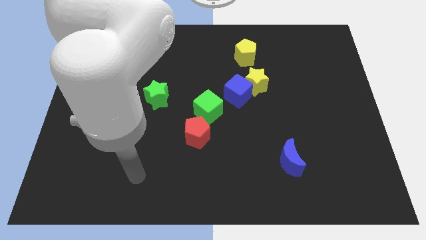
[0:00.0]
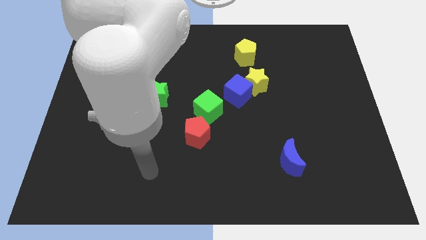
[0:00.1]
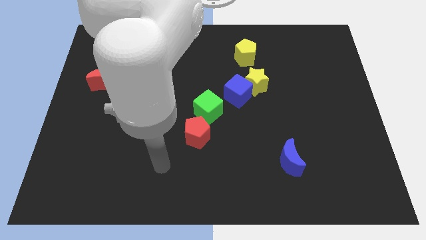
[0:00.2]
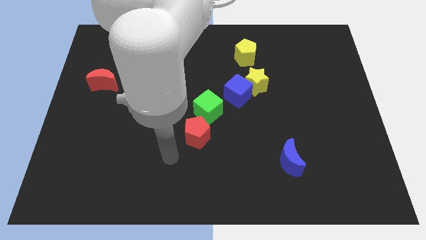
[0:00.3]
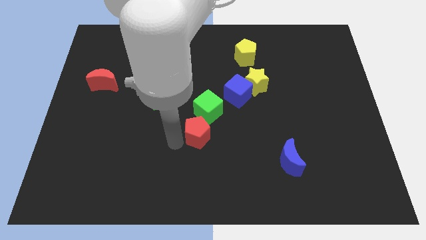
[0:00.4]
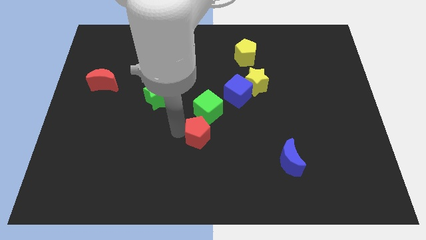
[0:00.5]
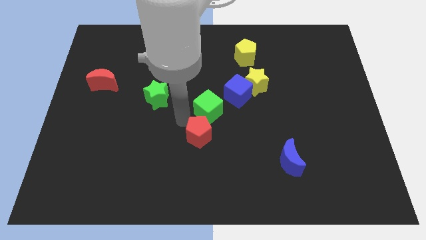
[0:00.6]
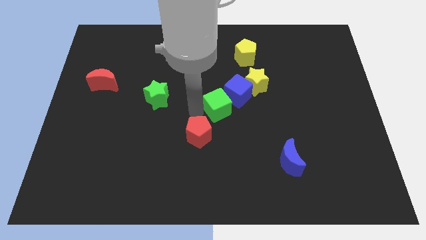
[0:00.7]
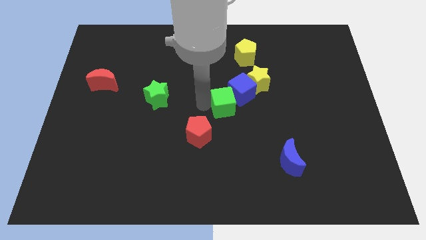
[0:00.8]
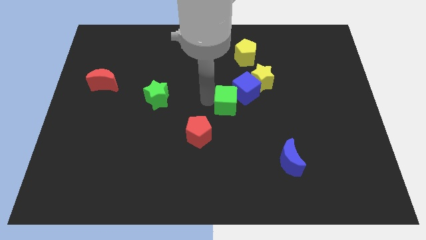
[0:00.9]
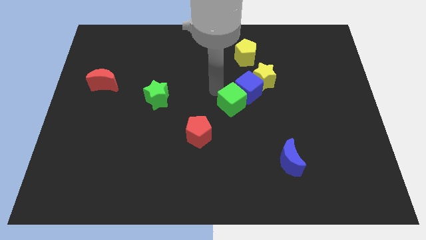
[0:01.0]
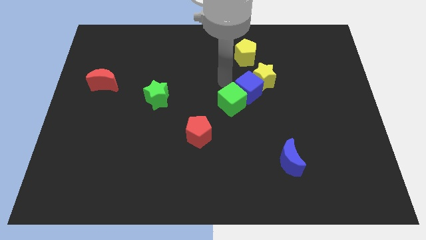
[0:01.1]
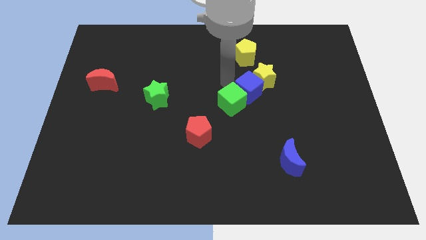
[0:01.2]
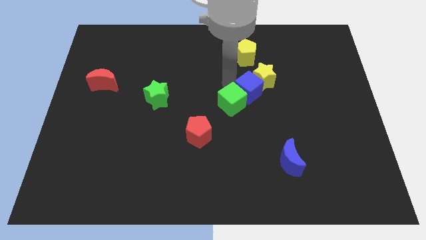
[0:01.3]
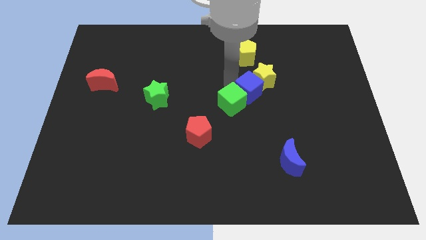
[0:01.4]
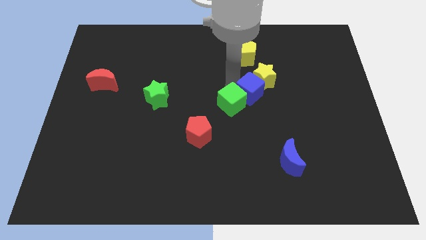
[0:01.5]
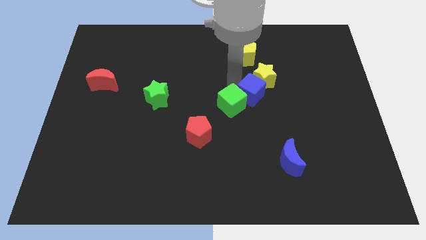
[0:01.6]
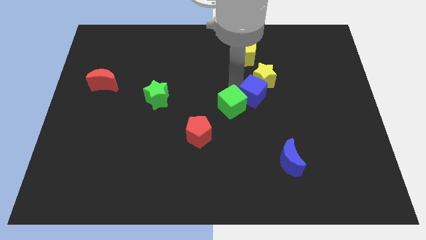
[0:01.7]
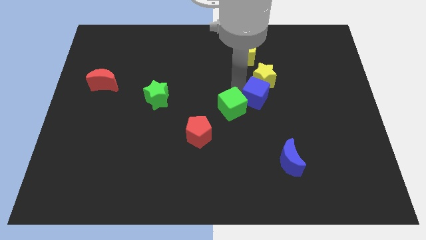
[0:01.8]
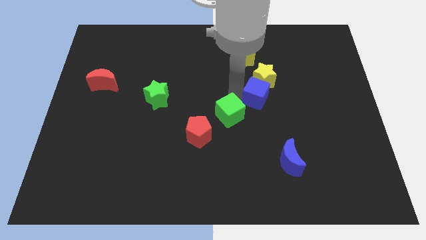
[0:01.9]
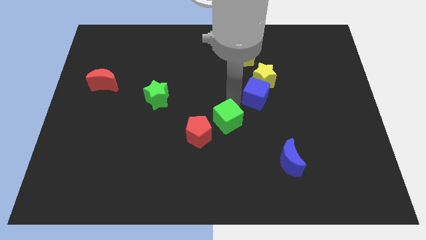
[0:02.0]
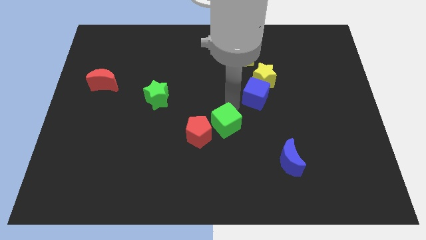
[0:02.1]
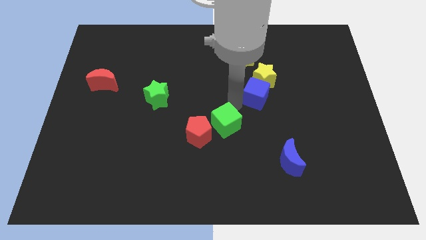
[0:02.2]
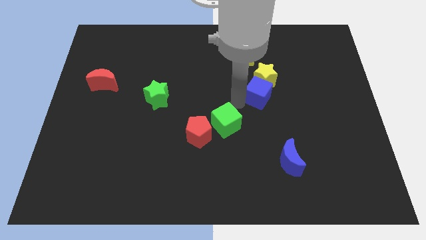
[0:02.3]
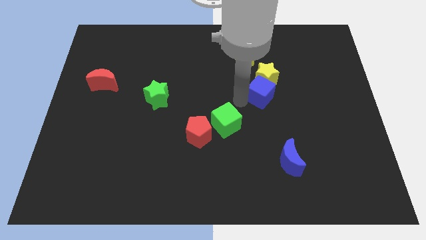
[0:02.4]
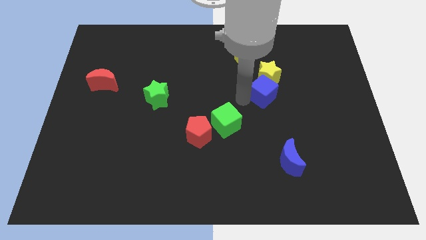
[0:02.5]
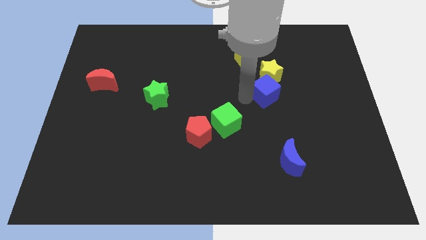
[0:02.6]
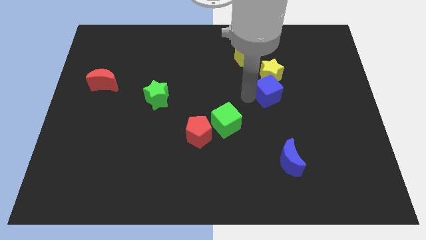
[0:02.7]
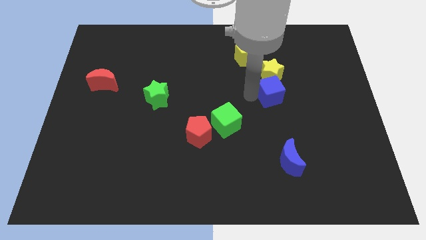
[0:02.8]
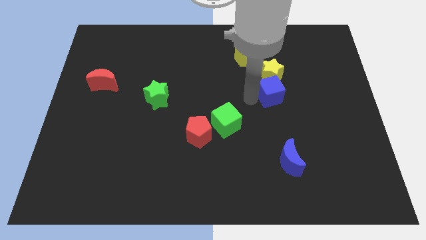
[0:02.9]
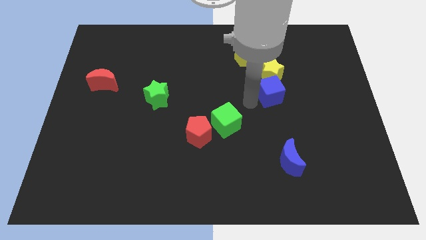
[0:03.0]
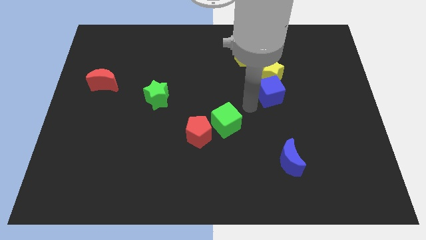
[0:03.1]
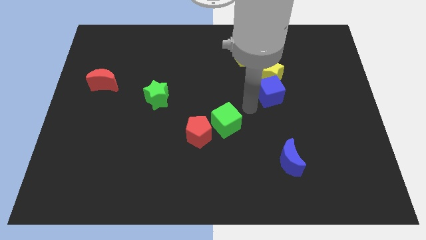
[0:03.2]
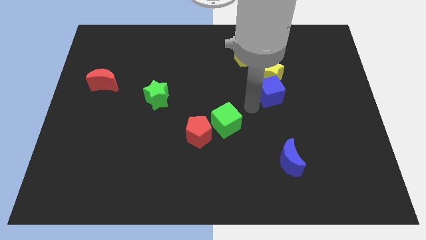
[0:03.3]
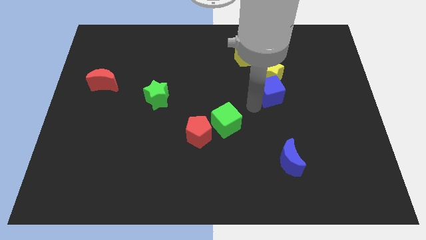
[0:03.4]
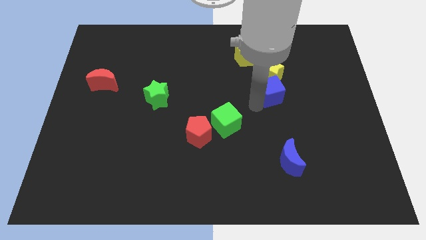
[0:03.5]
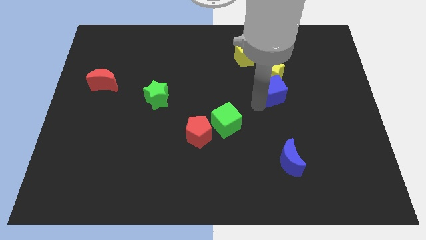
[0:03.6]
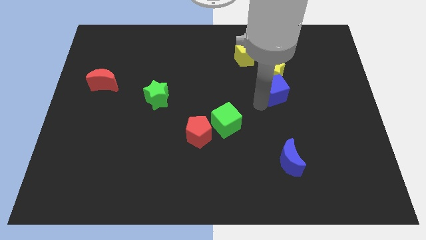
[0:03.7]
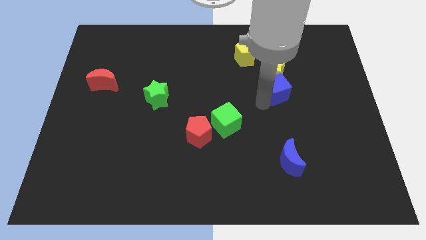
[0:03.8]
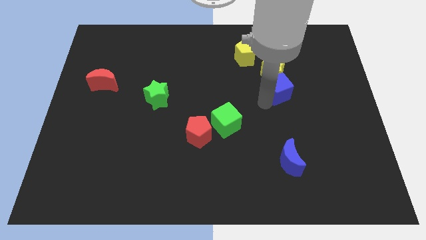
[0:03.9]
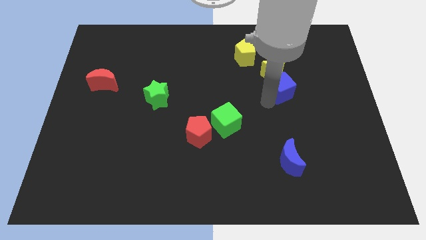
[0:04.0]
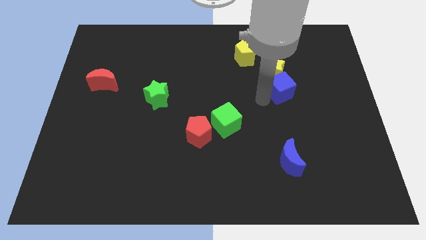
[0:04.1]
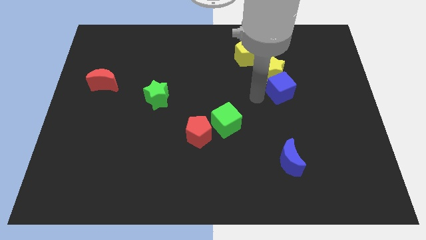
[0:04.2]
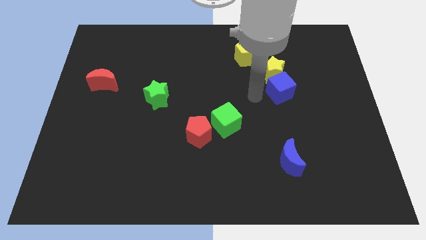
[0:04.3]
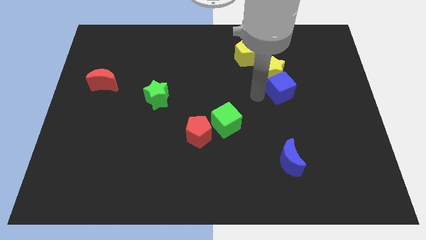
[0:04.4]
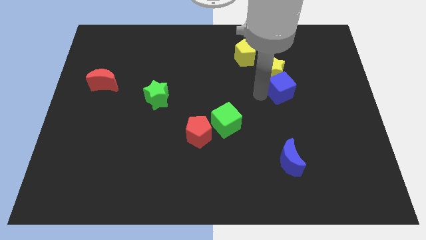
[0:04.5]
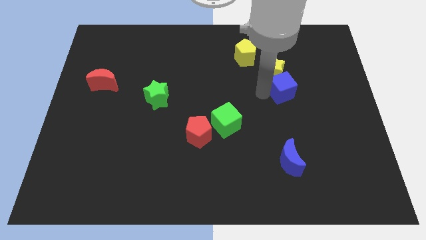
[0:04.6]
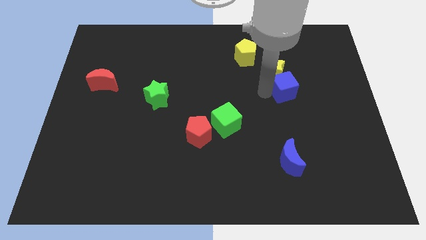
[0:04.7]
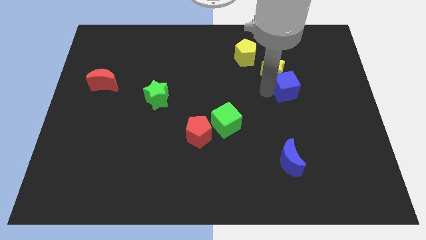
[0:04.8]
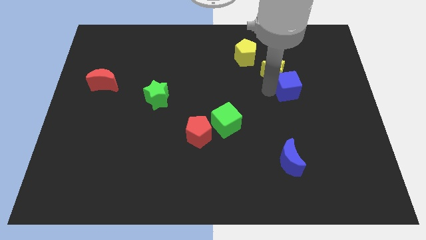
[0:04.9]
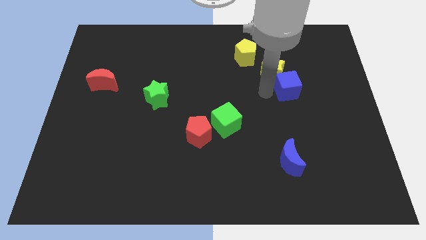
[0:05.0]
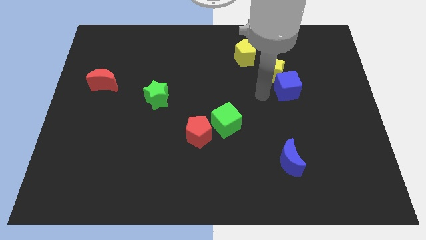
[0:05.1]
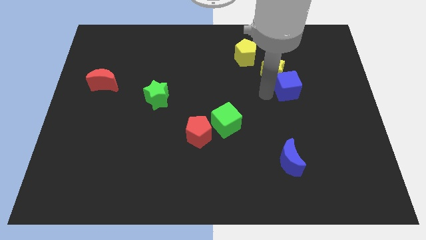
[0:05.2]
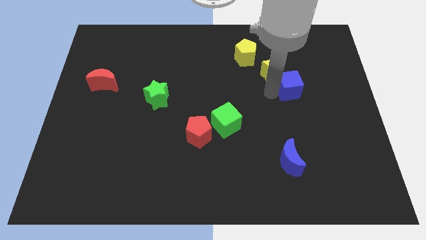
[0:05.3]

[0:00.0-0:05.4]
separate the blue cube from the yellow star and green cube

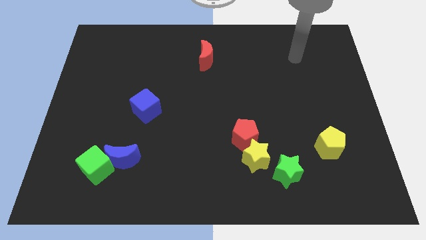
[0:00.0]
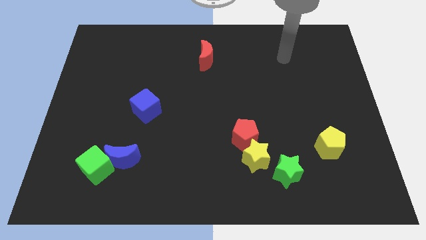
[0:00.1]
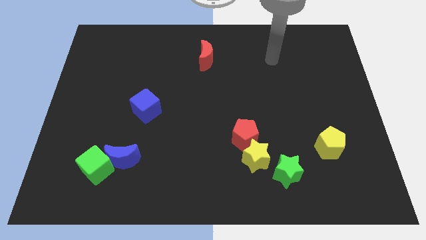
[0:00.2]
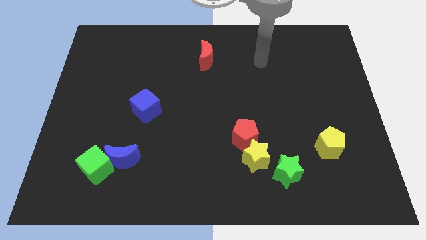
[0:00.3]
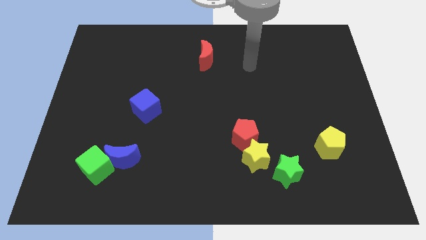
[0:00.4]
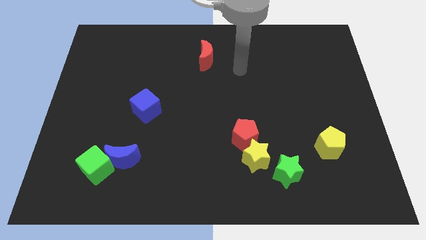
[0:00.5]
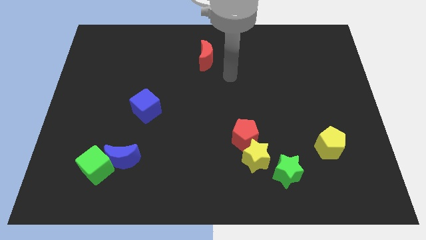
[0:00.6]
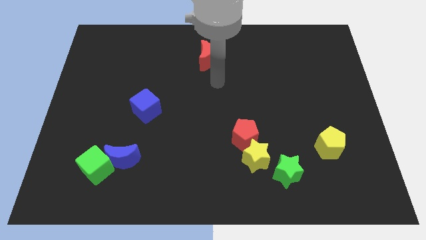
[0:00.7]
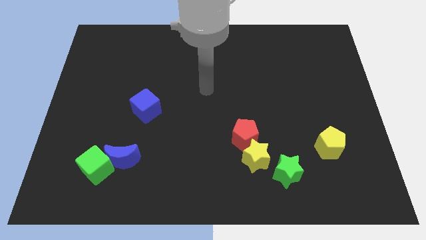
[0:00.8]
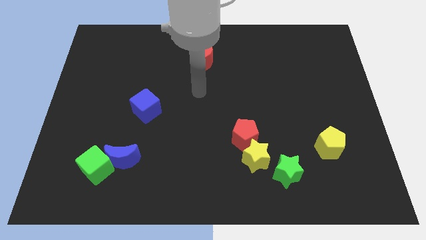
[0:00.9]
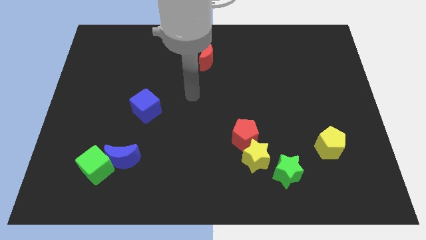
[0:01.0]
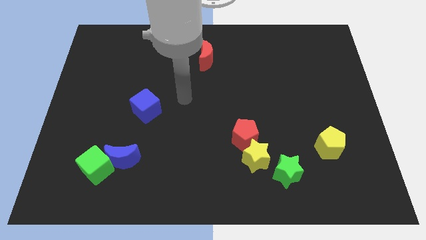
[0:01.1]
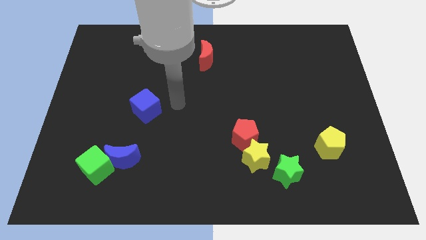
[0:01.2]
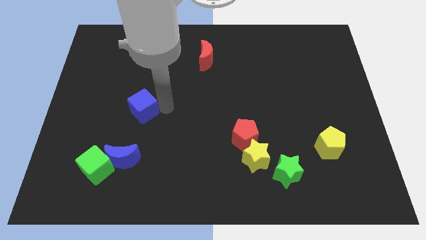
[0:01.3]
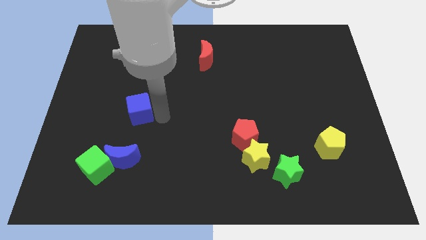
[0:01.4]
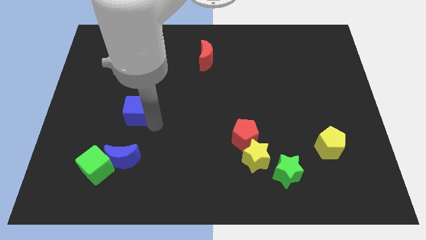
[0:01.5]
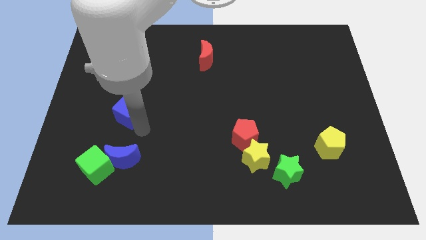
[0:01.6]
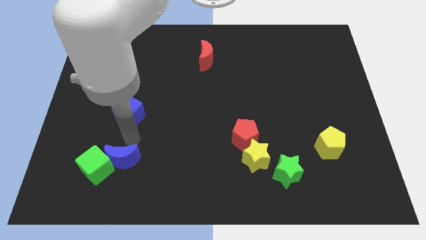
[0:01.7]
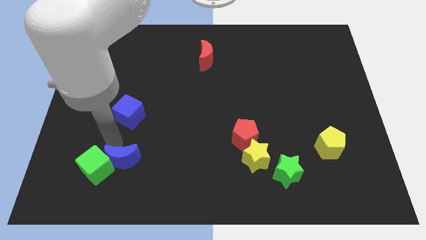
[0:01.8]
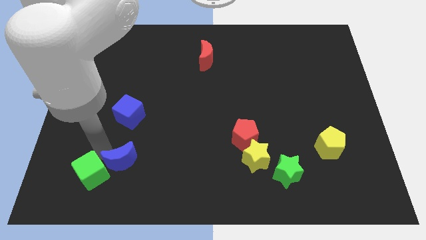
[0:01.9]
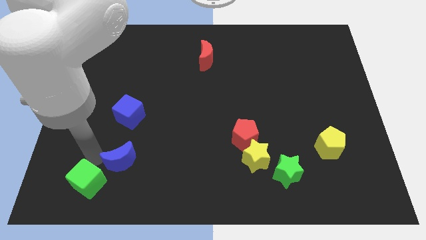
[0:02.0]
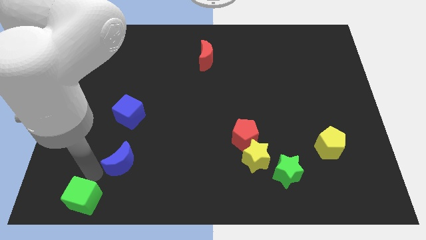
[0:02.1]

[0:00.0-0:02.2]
pull the blue moon apart from the green cube

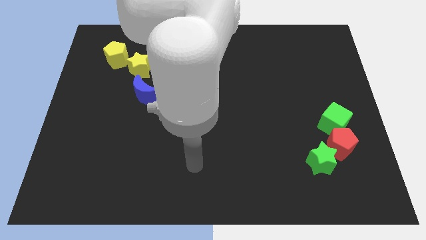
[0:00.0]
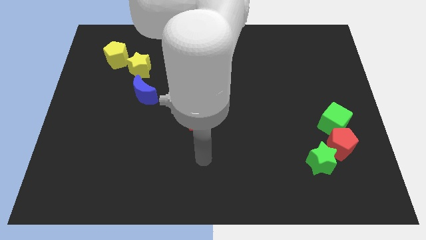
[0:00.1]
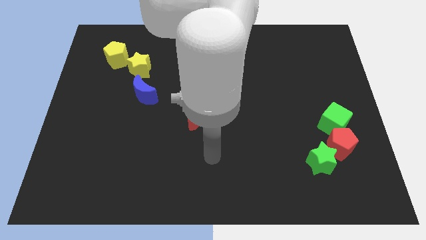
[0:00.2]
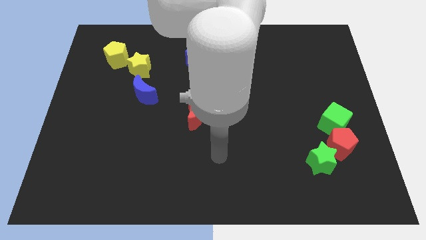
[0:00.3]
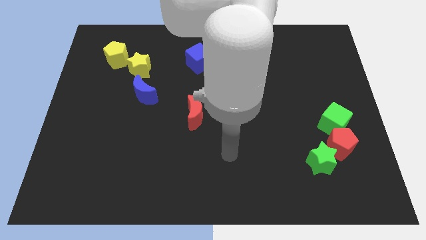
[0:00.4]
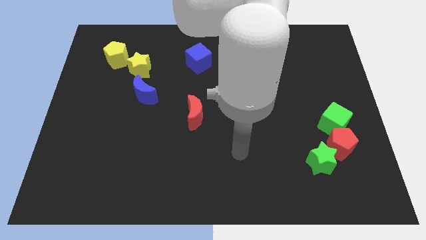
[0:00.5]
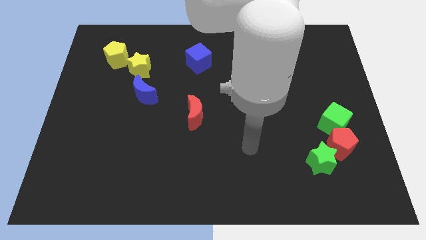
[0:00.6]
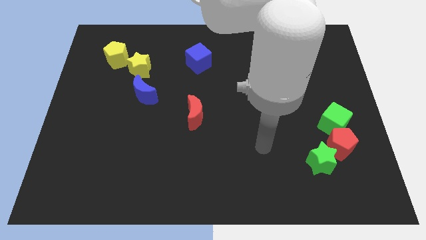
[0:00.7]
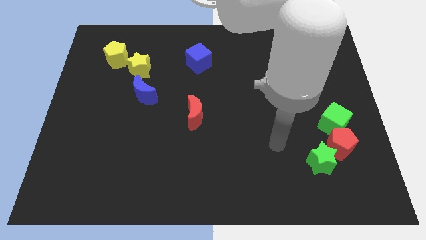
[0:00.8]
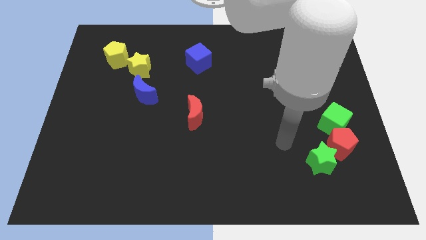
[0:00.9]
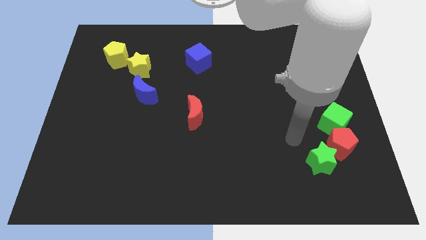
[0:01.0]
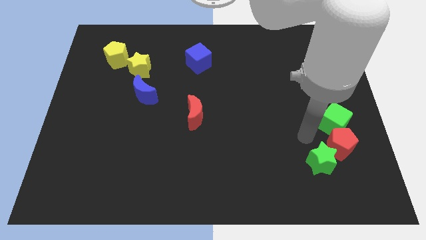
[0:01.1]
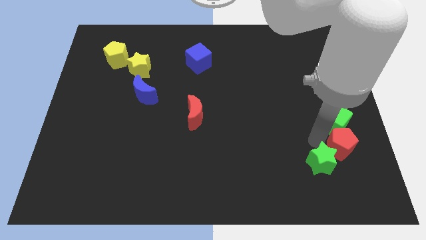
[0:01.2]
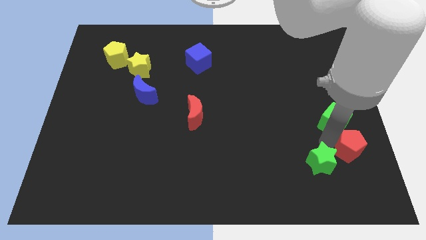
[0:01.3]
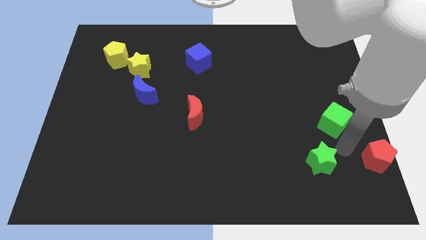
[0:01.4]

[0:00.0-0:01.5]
pull the green star apart from the red pentagon

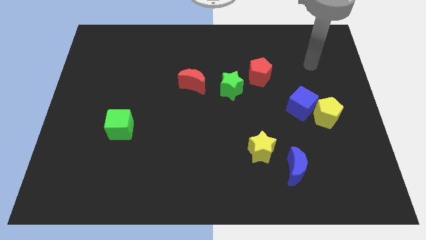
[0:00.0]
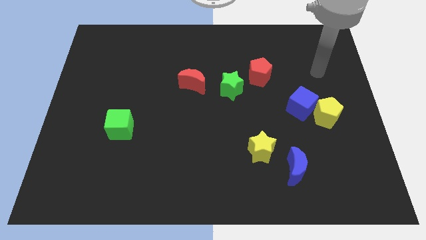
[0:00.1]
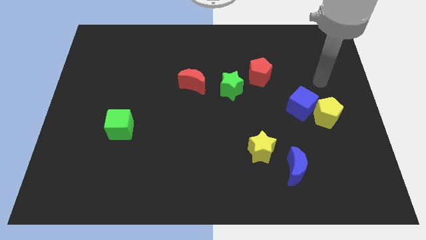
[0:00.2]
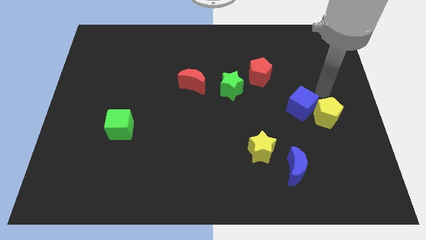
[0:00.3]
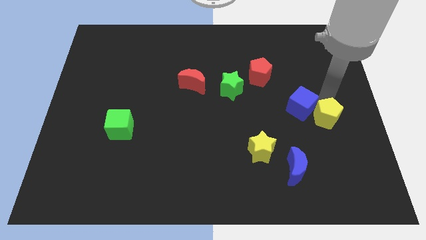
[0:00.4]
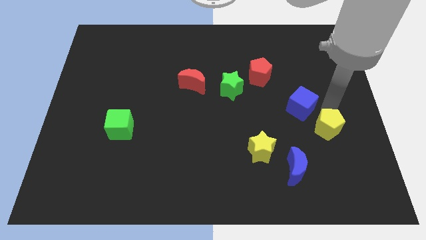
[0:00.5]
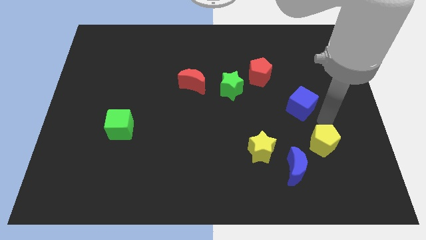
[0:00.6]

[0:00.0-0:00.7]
pull the blue cube apart from the yellow pentagon
